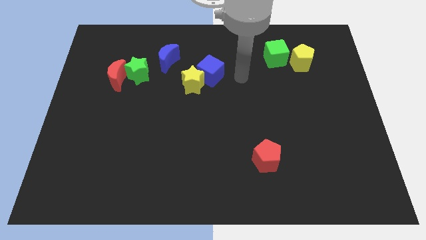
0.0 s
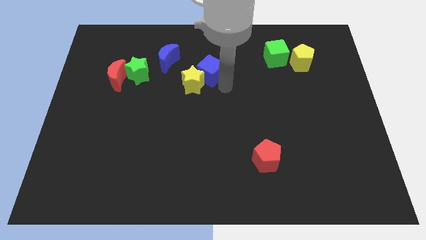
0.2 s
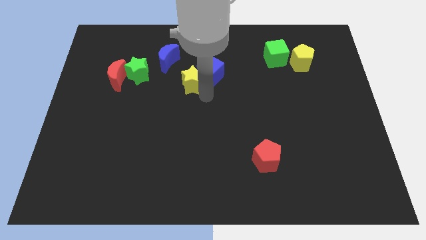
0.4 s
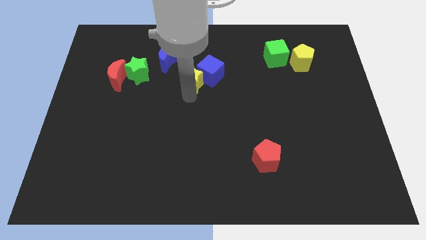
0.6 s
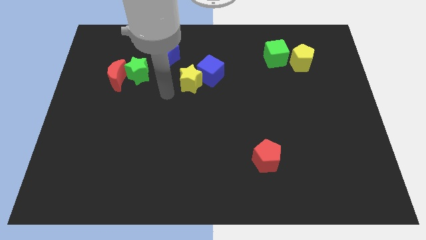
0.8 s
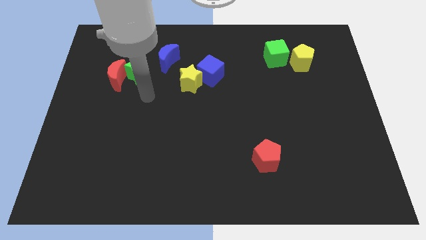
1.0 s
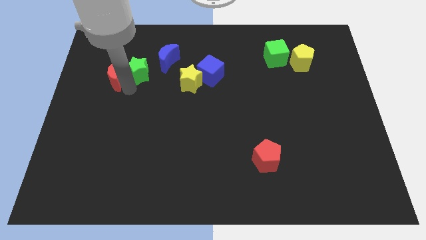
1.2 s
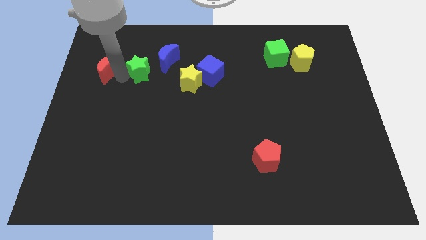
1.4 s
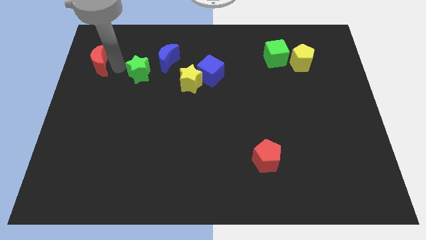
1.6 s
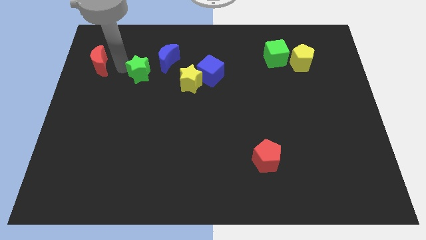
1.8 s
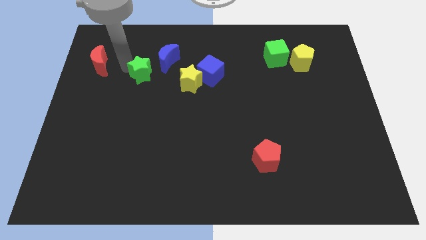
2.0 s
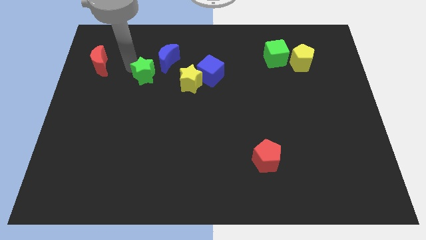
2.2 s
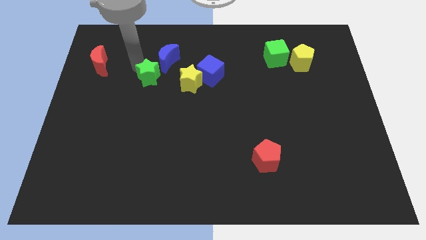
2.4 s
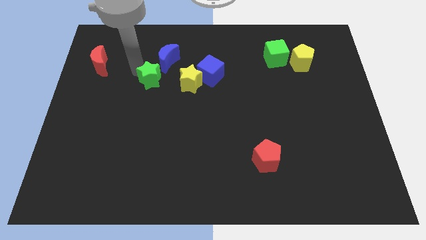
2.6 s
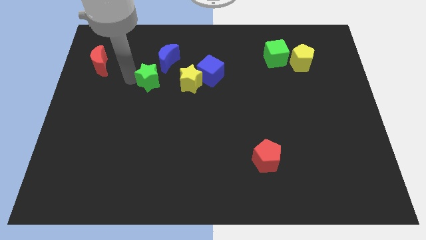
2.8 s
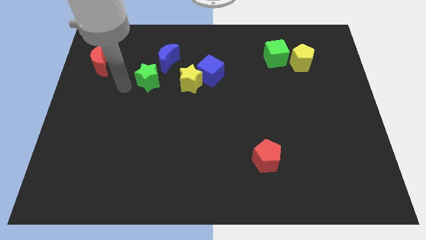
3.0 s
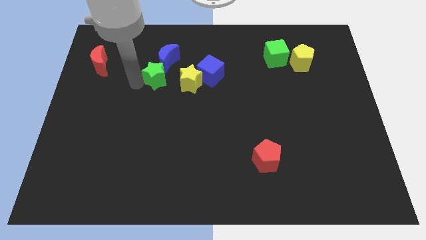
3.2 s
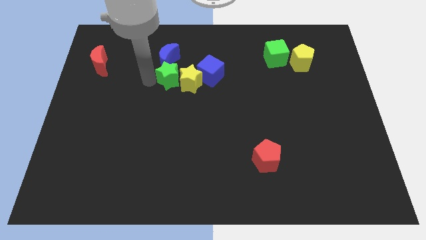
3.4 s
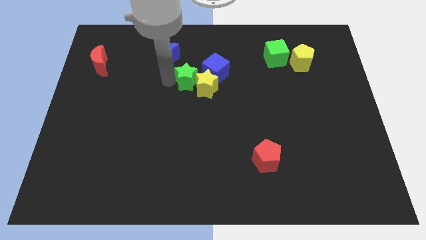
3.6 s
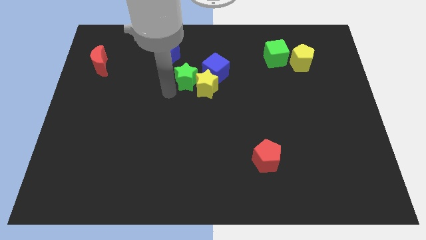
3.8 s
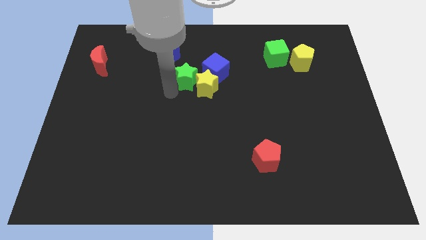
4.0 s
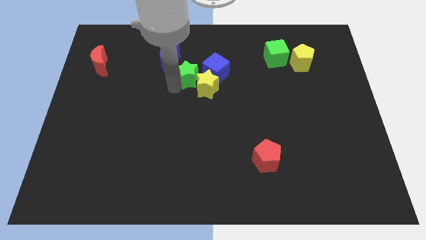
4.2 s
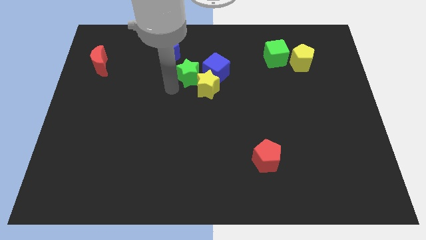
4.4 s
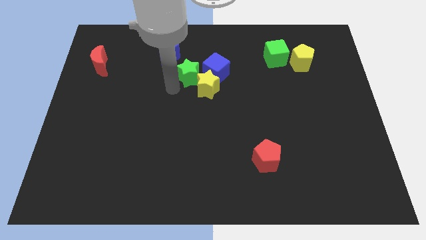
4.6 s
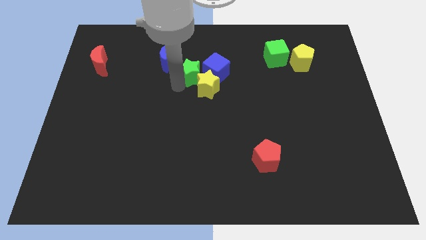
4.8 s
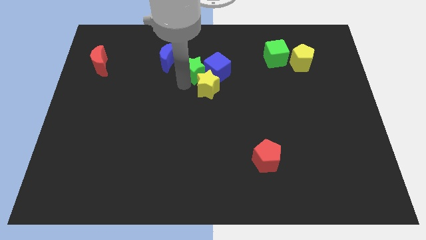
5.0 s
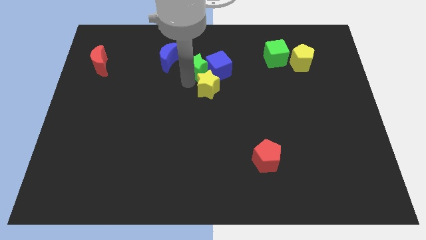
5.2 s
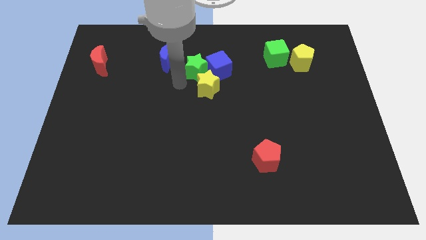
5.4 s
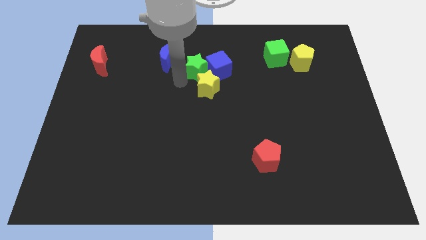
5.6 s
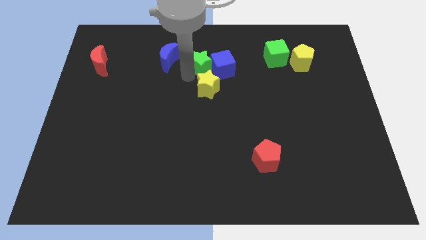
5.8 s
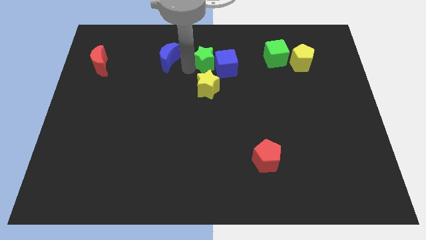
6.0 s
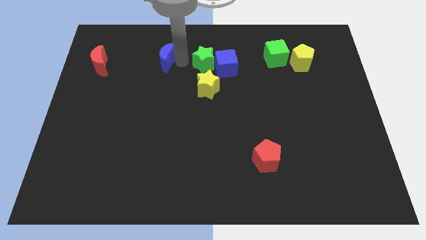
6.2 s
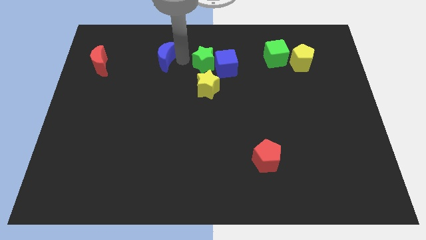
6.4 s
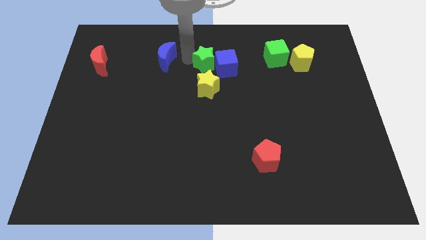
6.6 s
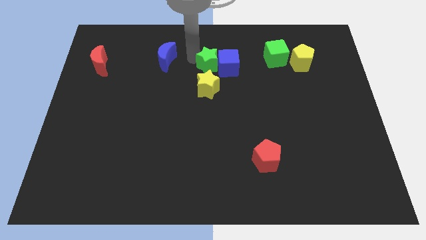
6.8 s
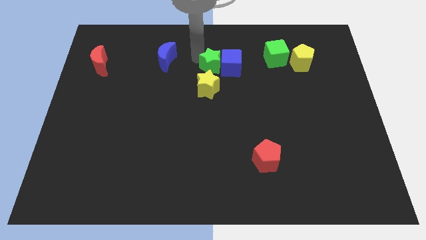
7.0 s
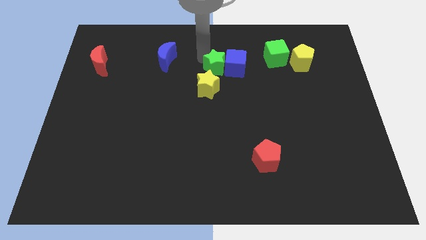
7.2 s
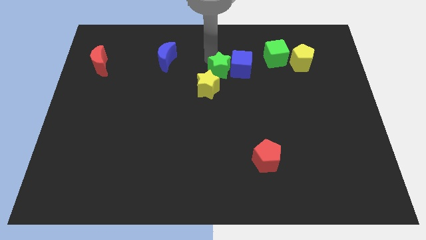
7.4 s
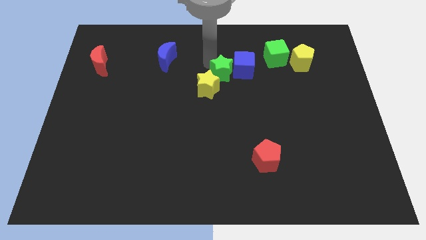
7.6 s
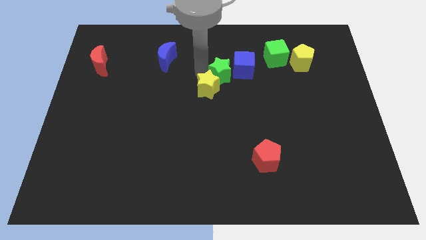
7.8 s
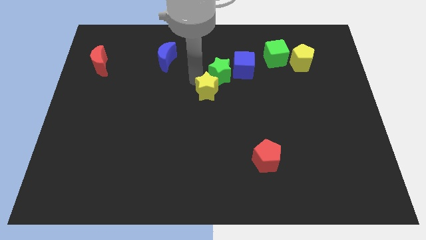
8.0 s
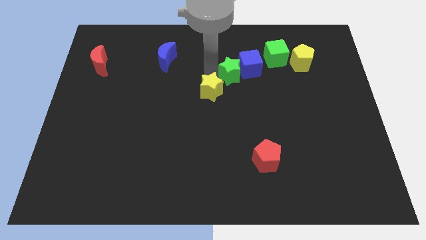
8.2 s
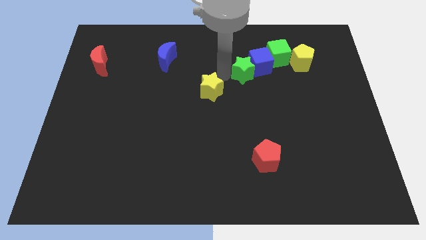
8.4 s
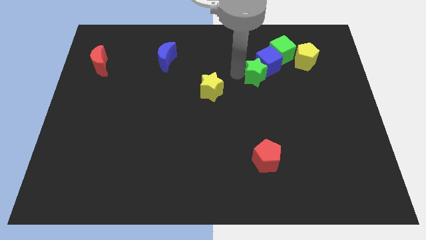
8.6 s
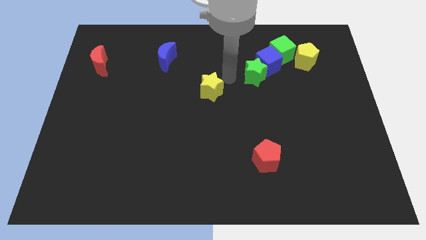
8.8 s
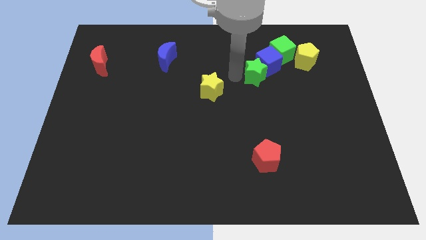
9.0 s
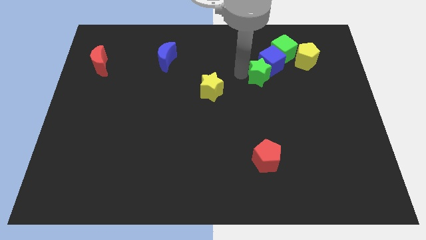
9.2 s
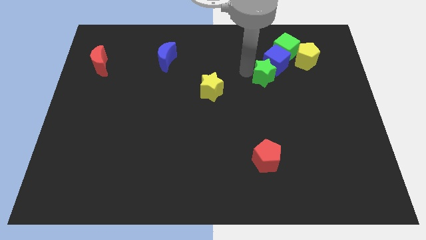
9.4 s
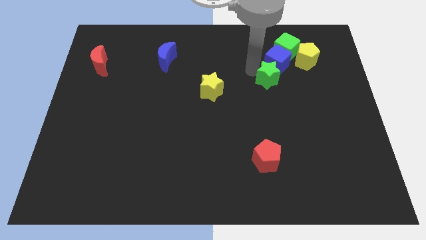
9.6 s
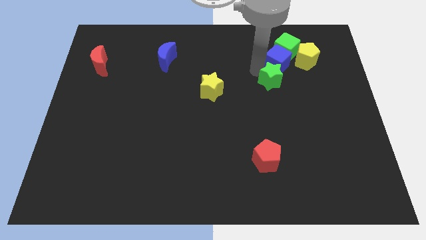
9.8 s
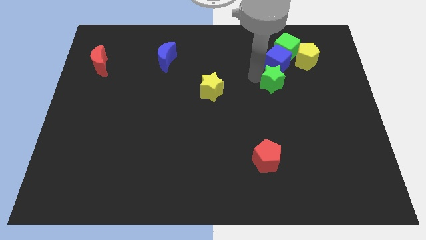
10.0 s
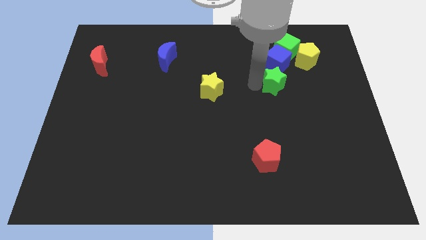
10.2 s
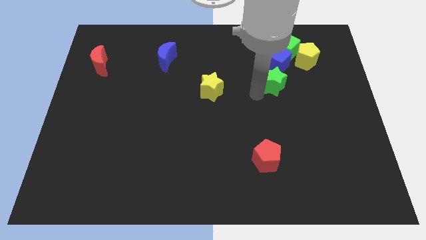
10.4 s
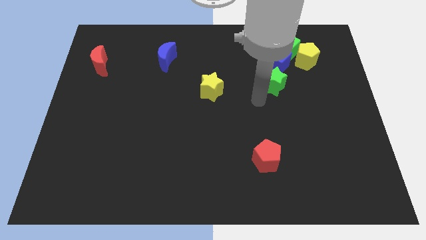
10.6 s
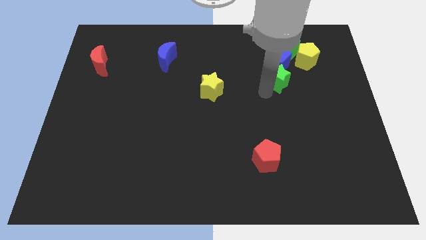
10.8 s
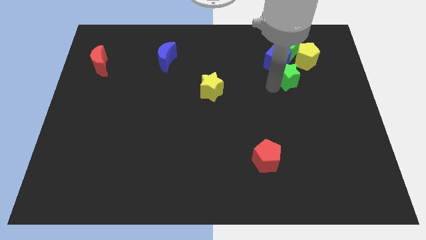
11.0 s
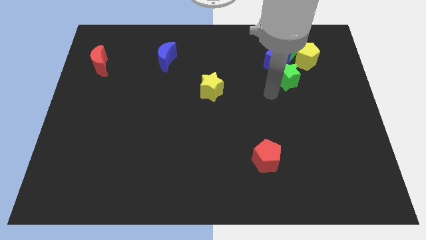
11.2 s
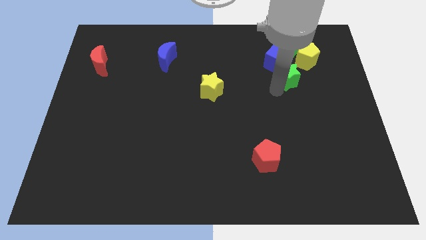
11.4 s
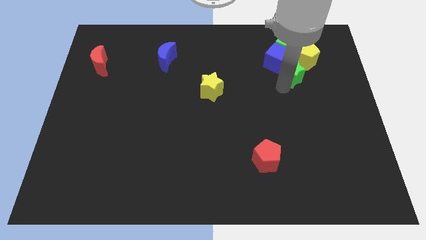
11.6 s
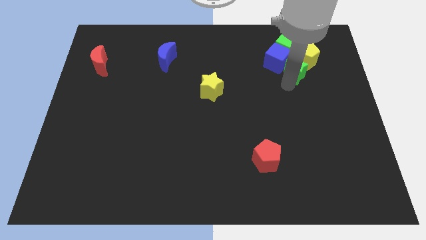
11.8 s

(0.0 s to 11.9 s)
put the green star next to the yellow pentagon

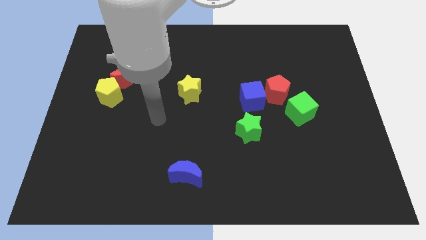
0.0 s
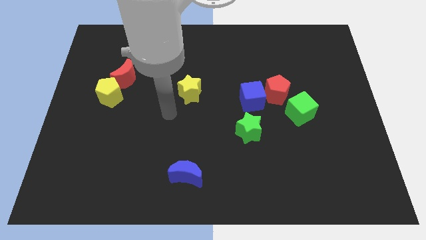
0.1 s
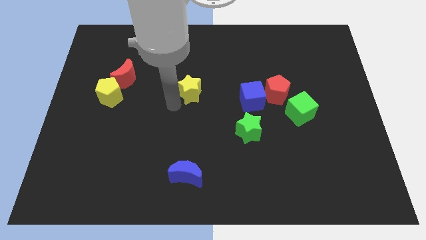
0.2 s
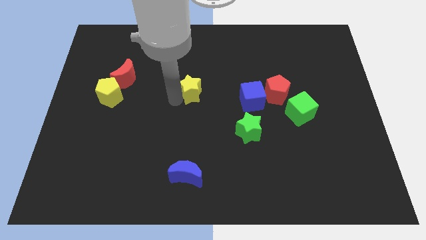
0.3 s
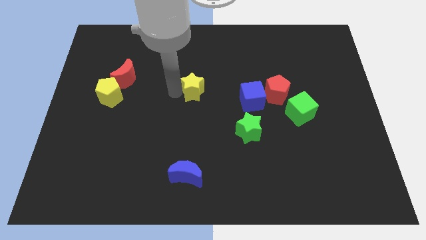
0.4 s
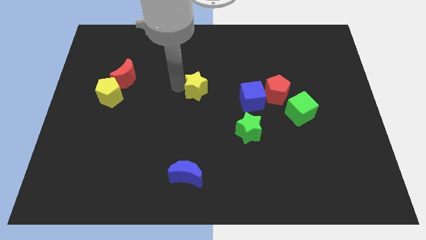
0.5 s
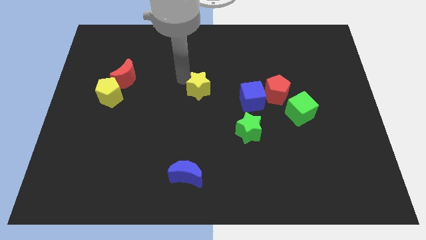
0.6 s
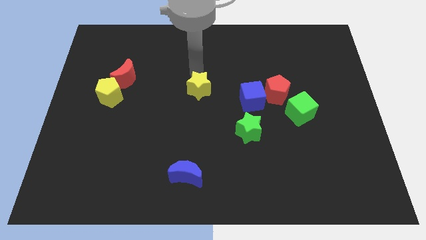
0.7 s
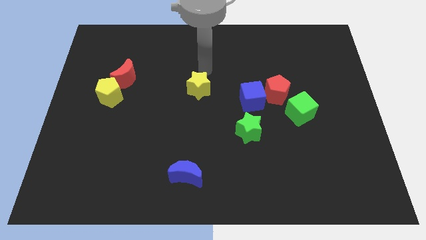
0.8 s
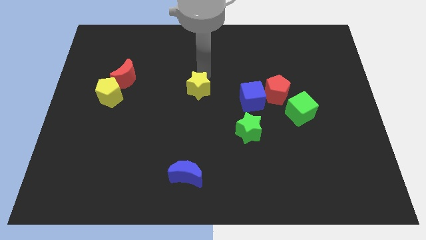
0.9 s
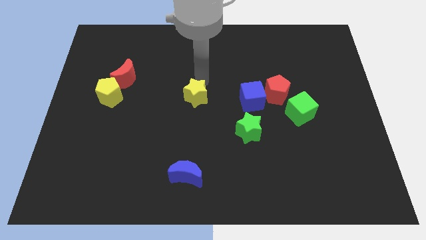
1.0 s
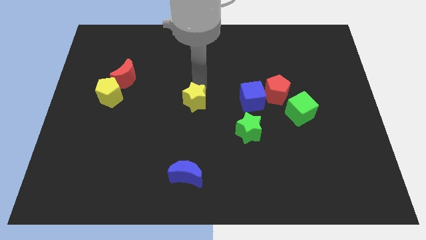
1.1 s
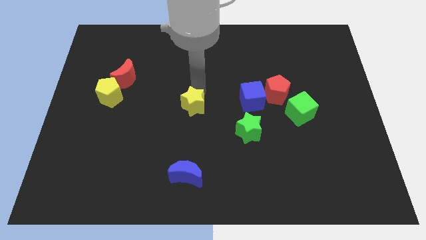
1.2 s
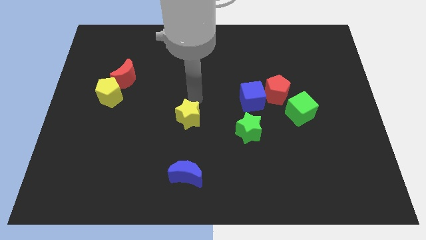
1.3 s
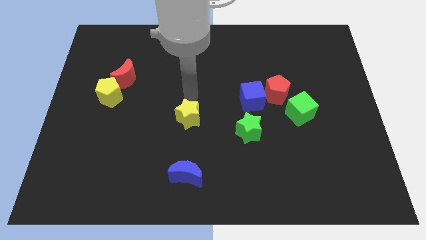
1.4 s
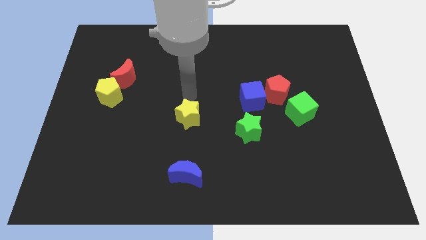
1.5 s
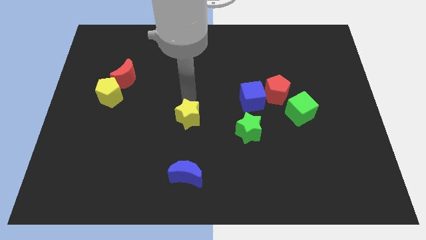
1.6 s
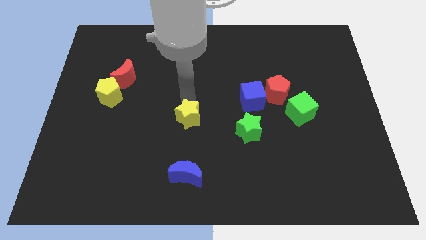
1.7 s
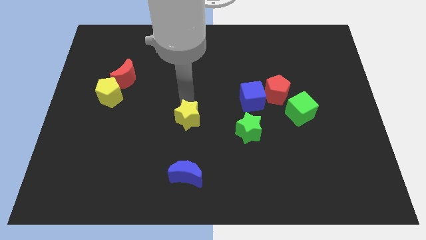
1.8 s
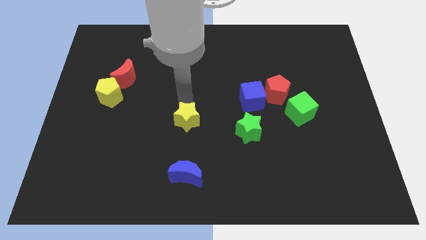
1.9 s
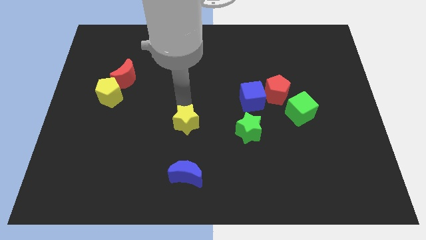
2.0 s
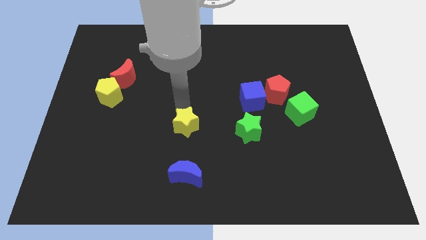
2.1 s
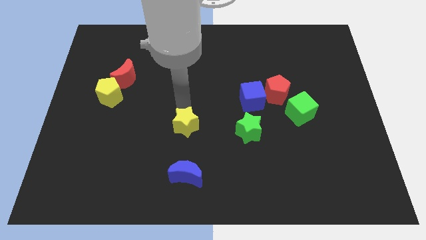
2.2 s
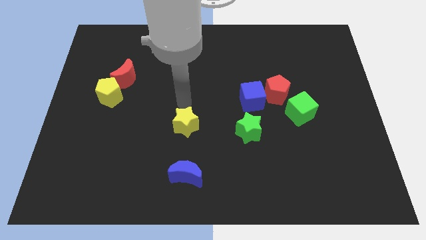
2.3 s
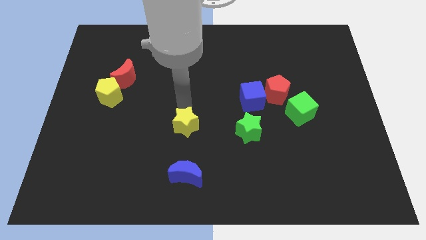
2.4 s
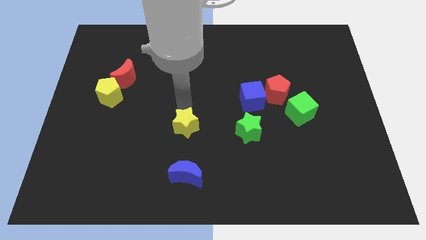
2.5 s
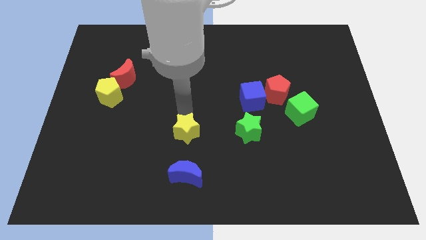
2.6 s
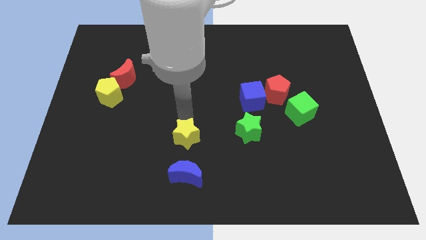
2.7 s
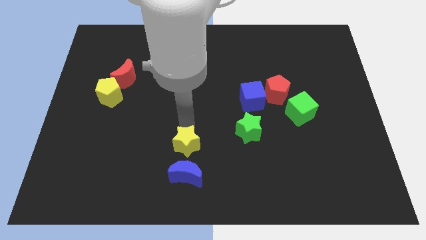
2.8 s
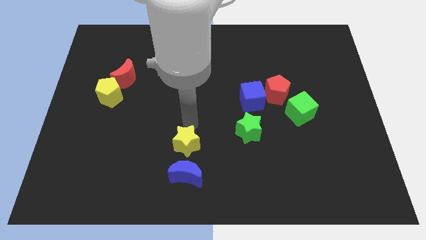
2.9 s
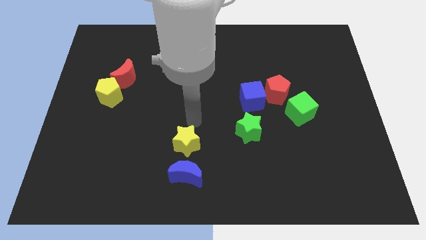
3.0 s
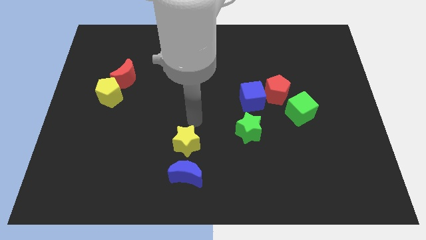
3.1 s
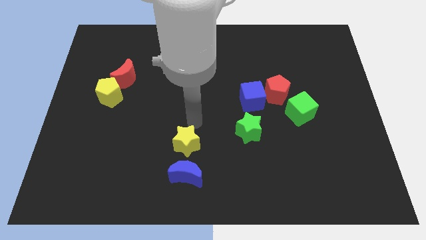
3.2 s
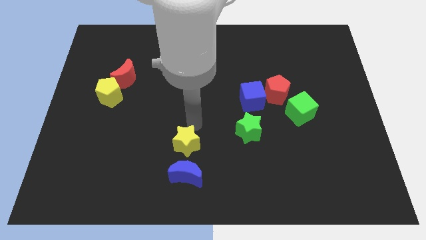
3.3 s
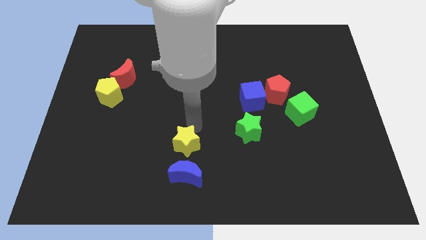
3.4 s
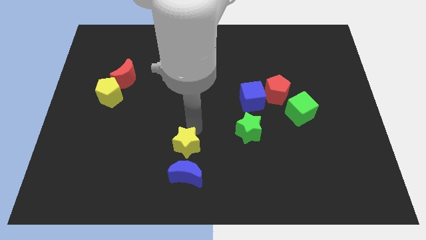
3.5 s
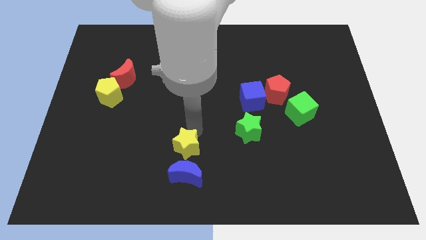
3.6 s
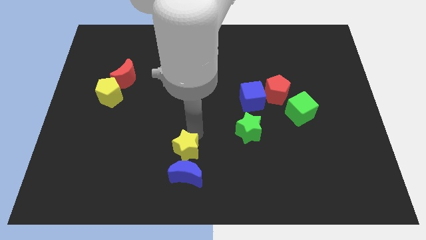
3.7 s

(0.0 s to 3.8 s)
move the yellow star towards the blue moon
